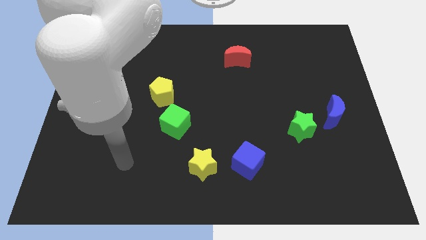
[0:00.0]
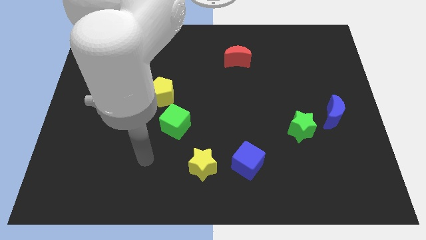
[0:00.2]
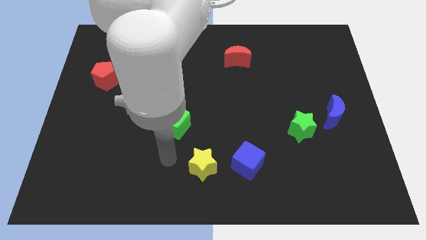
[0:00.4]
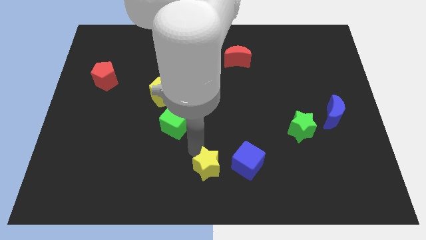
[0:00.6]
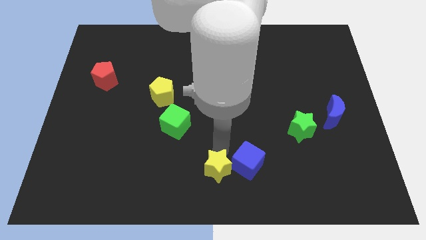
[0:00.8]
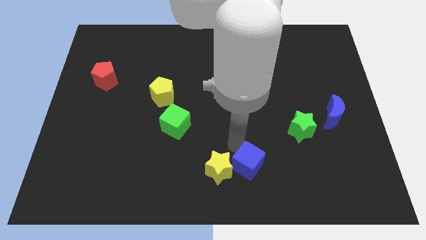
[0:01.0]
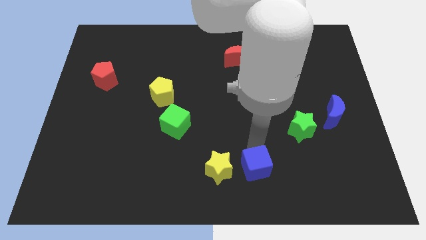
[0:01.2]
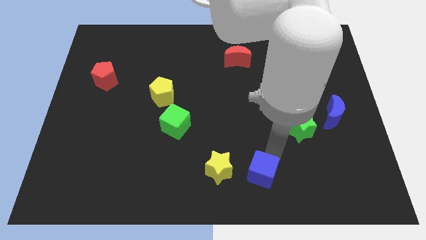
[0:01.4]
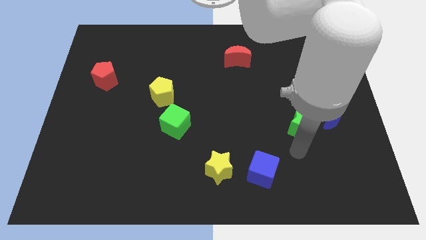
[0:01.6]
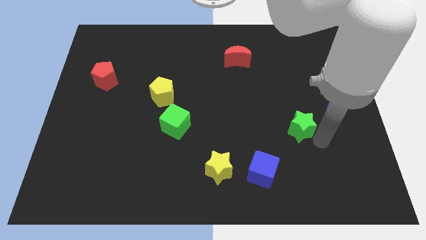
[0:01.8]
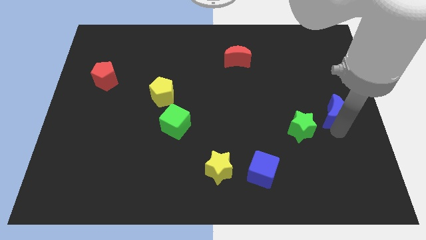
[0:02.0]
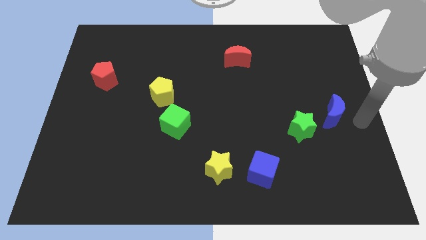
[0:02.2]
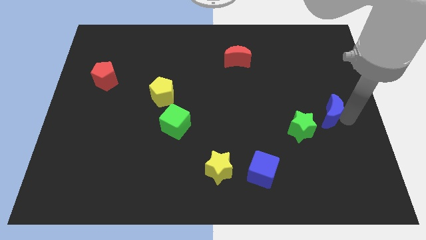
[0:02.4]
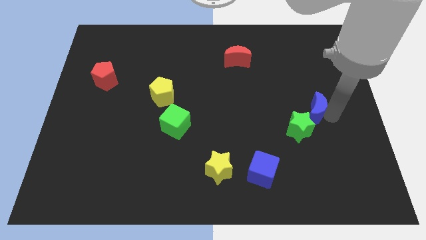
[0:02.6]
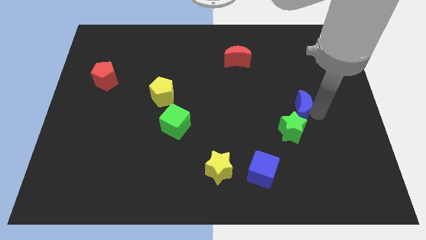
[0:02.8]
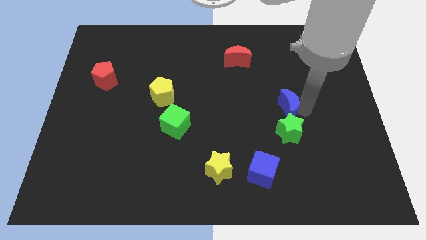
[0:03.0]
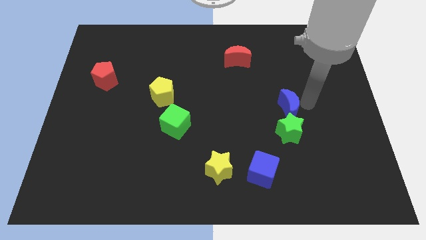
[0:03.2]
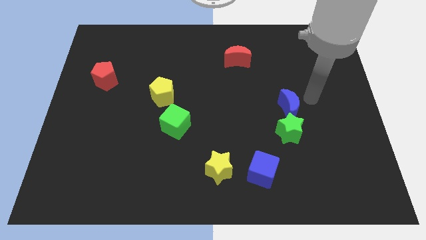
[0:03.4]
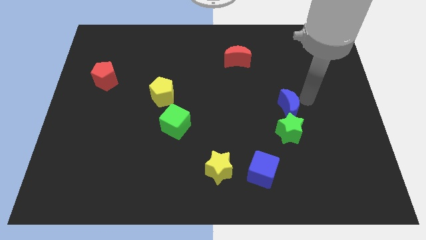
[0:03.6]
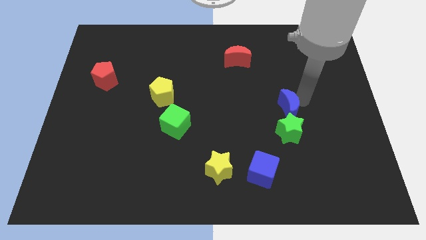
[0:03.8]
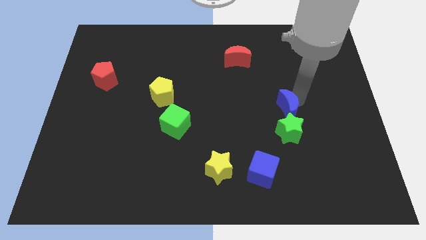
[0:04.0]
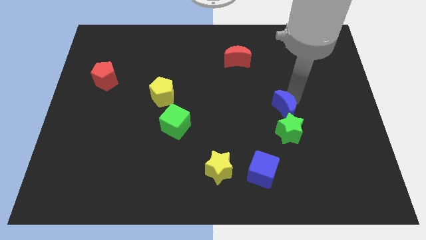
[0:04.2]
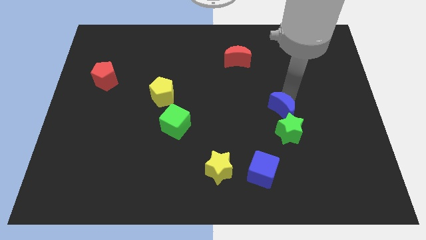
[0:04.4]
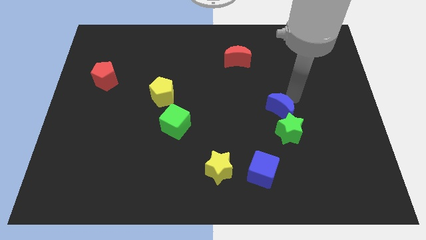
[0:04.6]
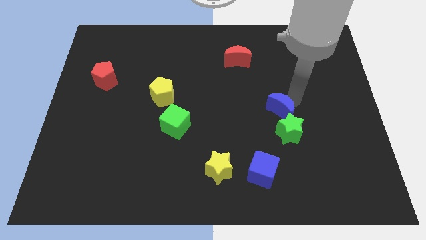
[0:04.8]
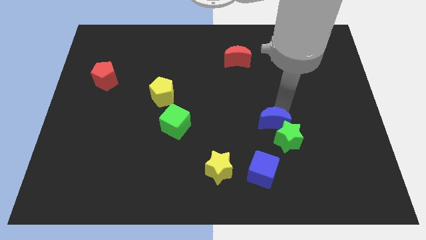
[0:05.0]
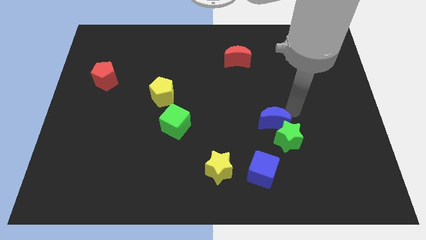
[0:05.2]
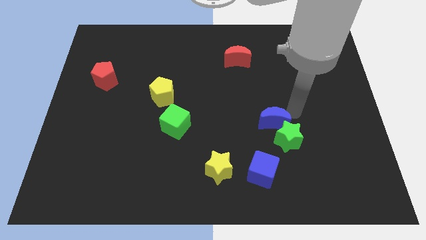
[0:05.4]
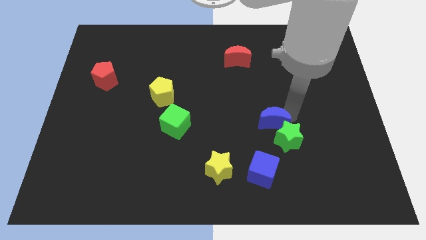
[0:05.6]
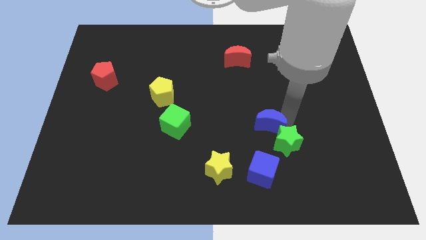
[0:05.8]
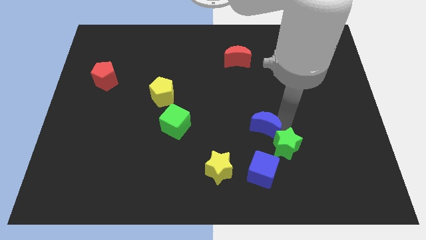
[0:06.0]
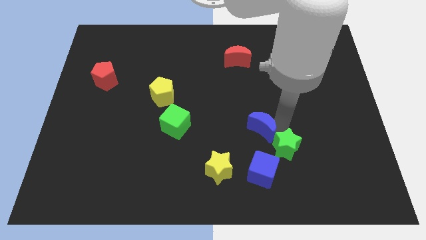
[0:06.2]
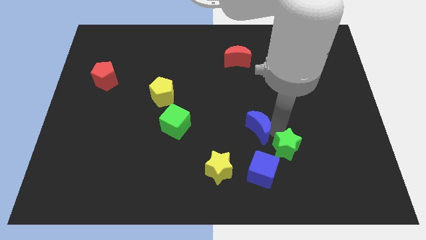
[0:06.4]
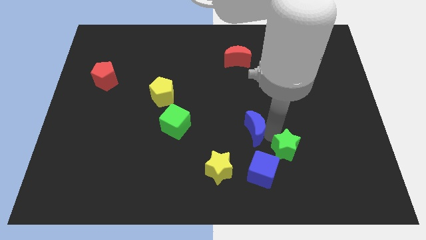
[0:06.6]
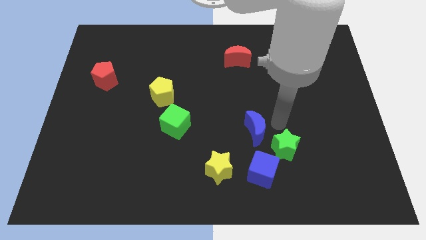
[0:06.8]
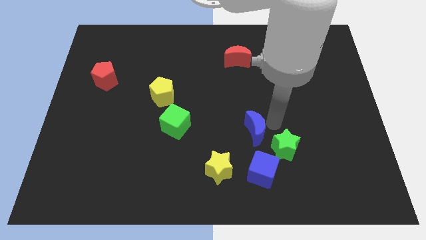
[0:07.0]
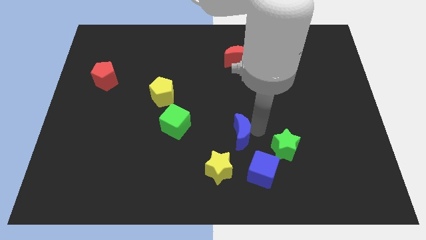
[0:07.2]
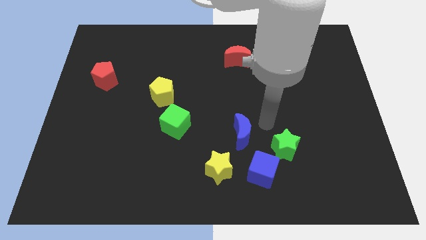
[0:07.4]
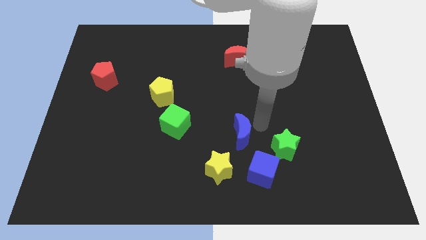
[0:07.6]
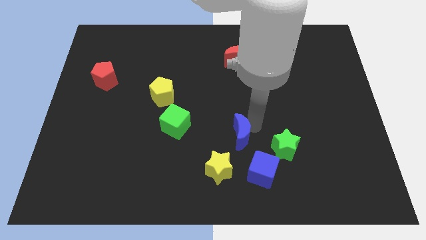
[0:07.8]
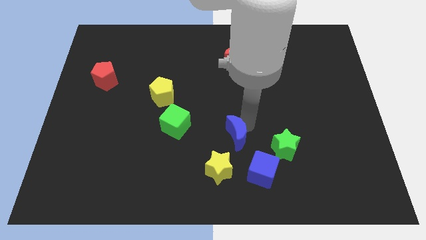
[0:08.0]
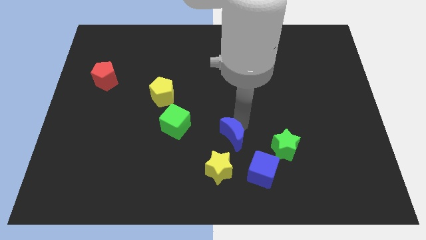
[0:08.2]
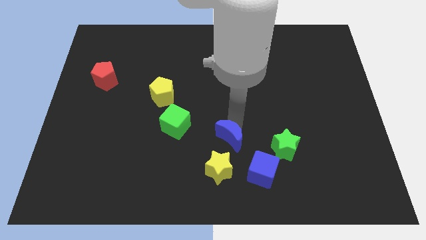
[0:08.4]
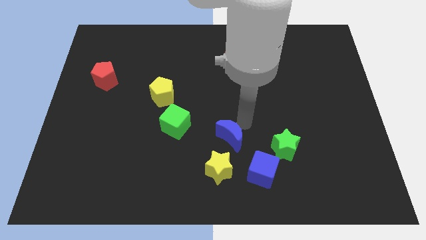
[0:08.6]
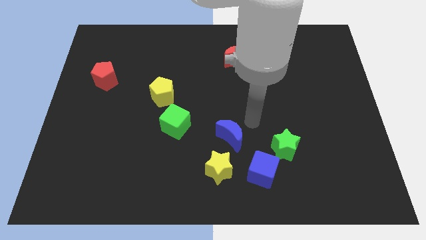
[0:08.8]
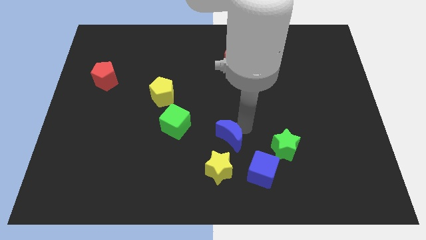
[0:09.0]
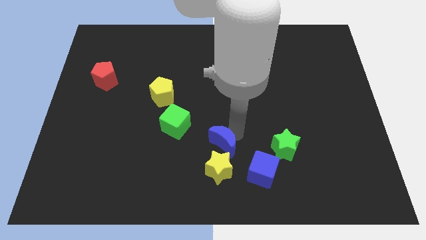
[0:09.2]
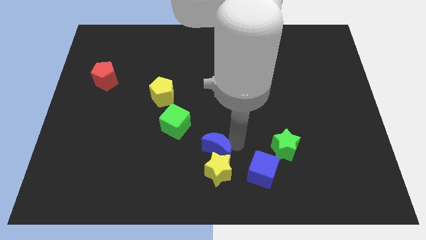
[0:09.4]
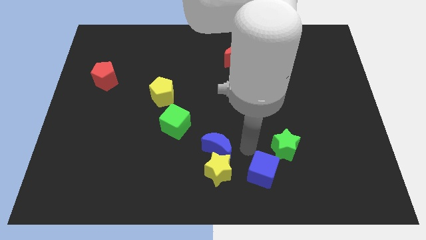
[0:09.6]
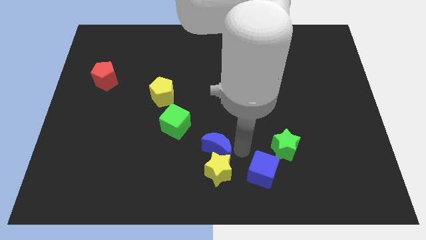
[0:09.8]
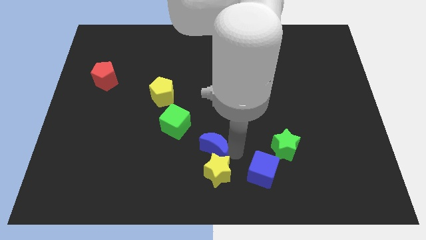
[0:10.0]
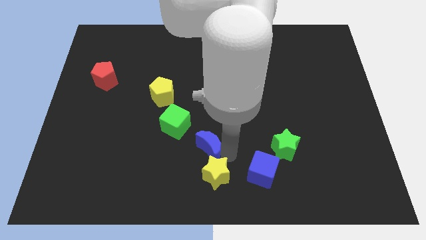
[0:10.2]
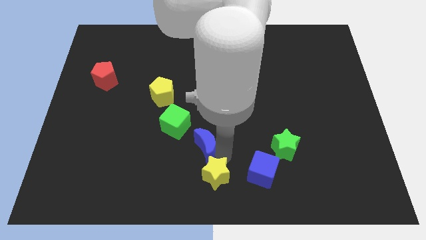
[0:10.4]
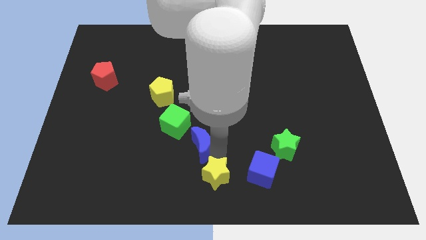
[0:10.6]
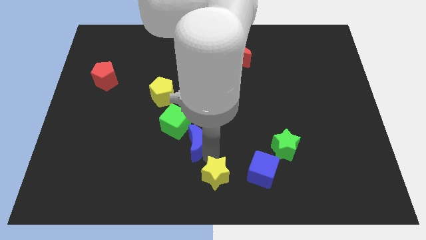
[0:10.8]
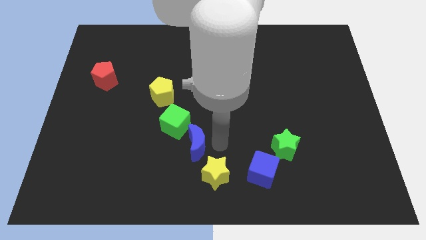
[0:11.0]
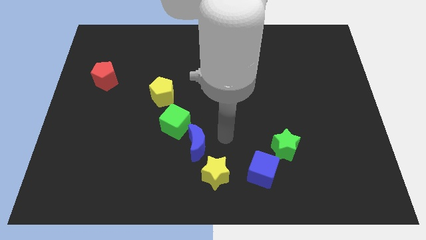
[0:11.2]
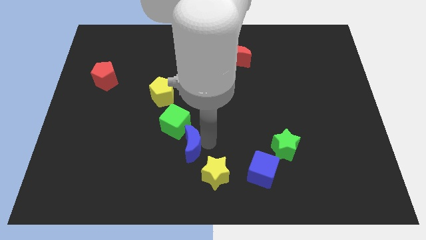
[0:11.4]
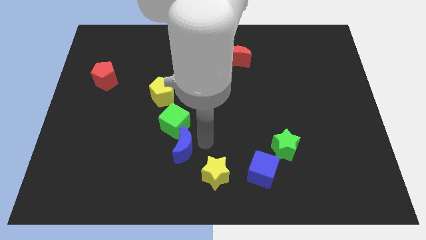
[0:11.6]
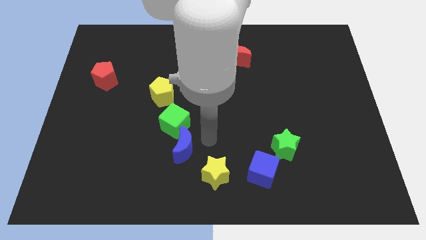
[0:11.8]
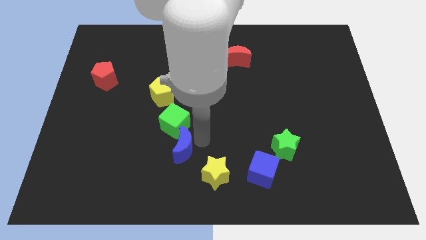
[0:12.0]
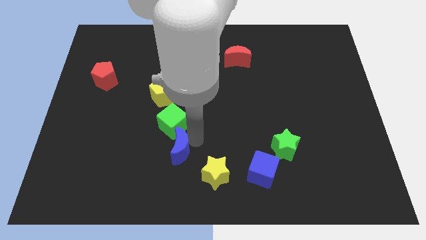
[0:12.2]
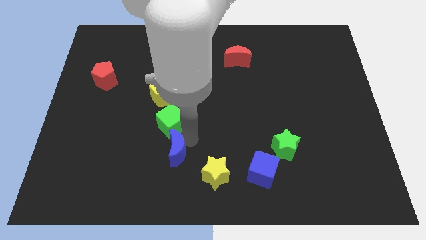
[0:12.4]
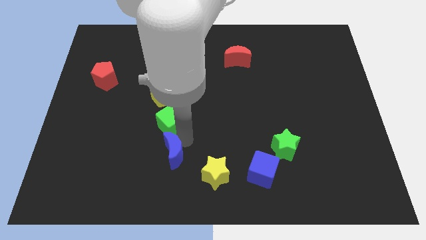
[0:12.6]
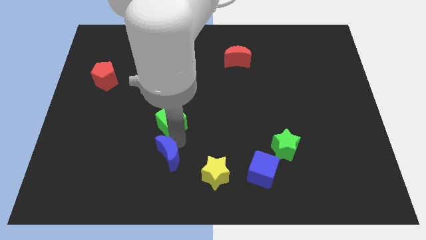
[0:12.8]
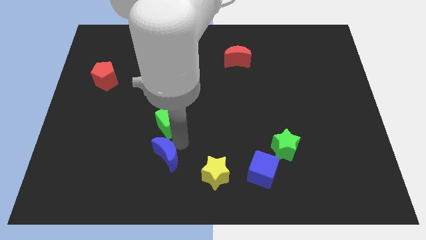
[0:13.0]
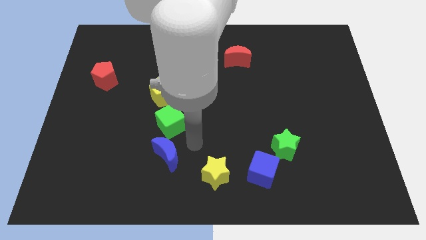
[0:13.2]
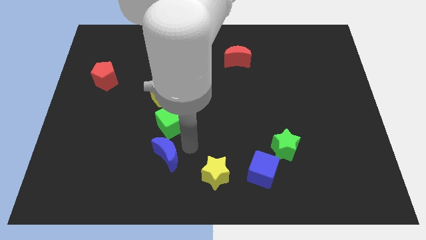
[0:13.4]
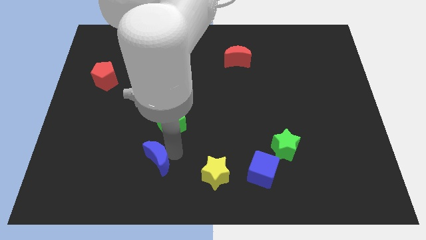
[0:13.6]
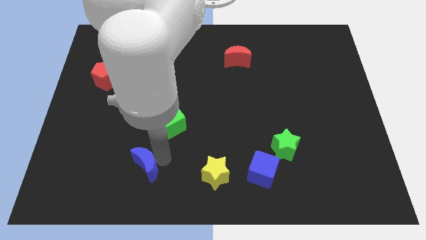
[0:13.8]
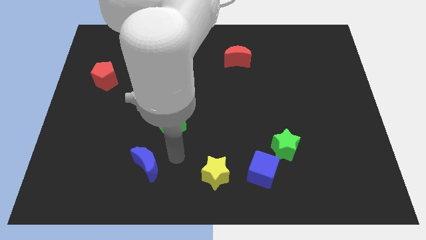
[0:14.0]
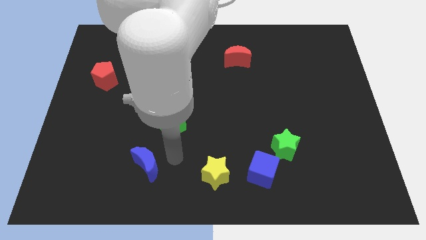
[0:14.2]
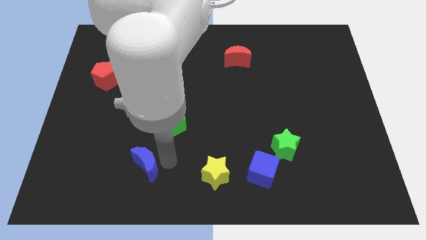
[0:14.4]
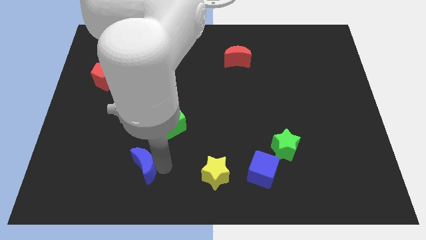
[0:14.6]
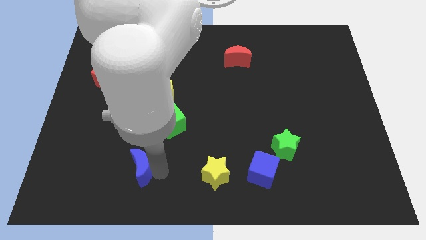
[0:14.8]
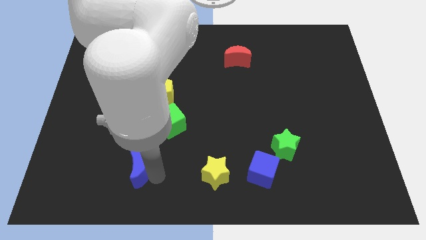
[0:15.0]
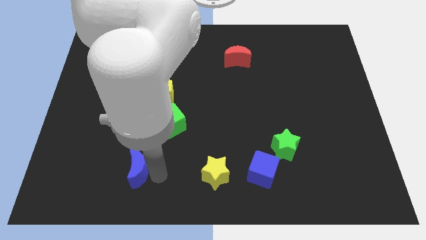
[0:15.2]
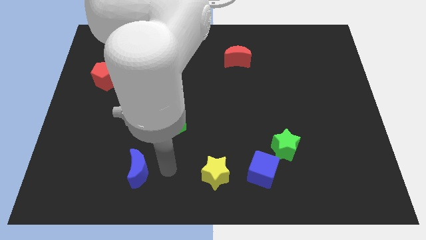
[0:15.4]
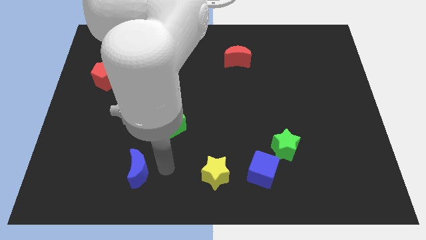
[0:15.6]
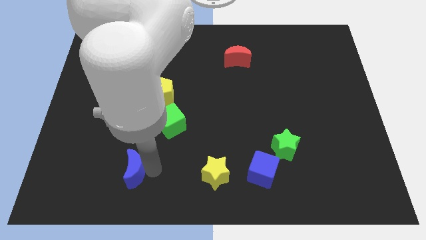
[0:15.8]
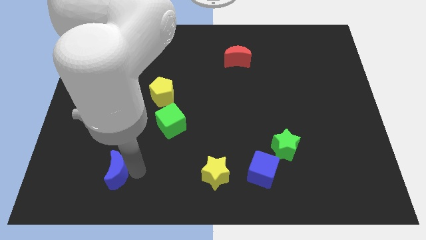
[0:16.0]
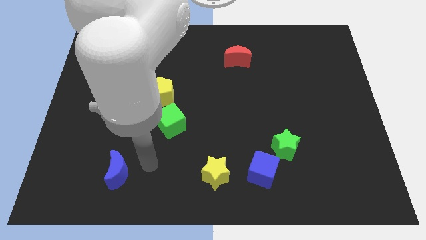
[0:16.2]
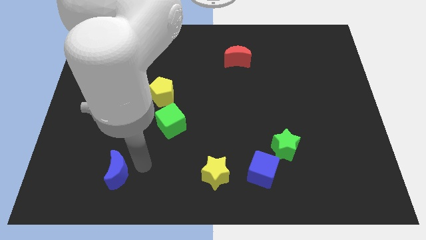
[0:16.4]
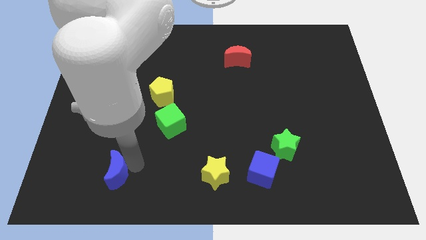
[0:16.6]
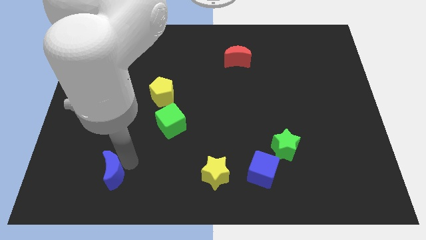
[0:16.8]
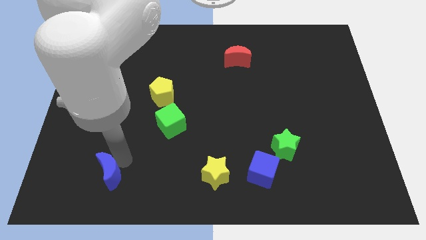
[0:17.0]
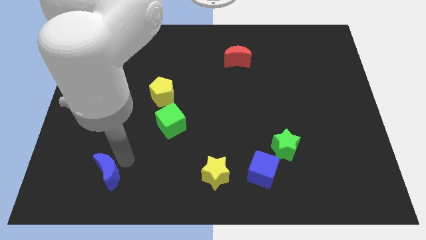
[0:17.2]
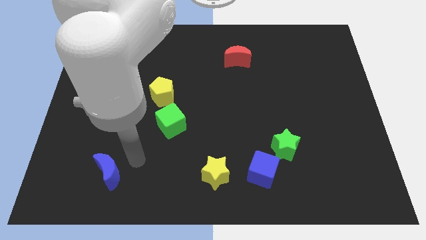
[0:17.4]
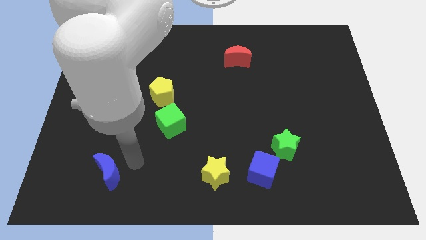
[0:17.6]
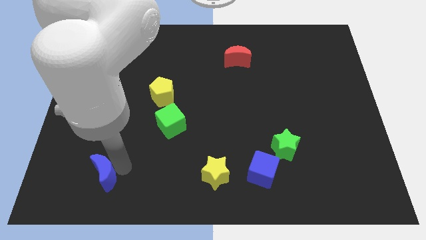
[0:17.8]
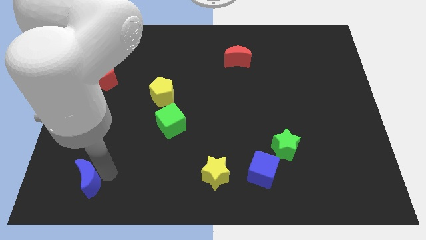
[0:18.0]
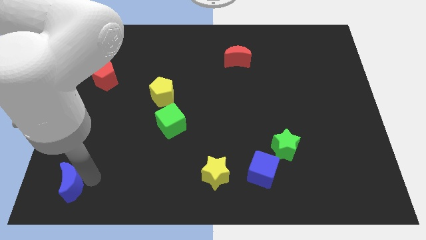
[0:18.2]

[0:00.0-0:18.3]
push the blue moon to the lower left corner
